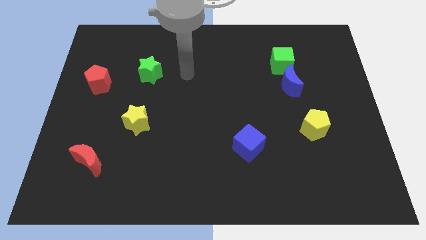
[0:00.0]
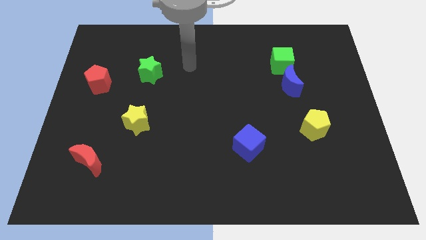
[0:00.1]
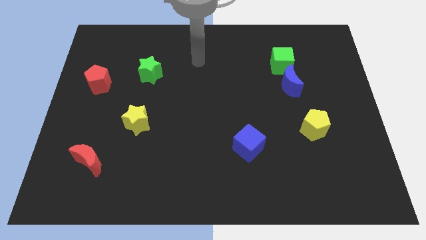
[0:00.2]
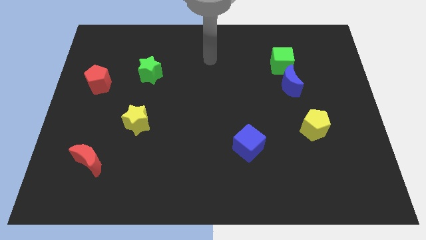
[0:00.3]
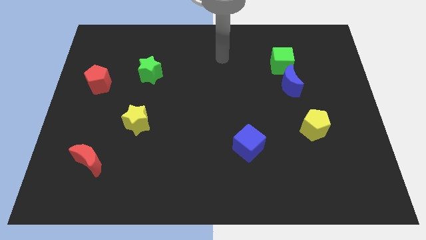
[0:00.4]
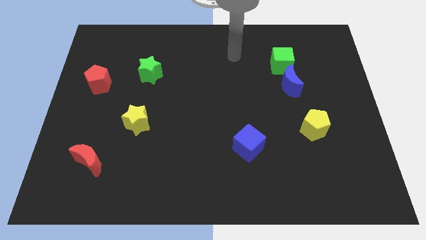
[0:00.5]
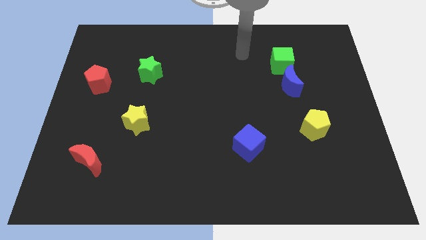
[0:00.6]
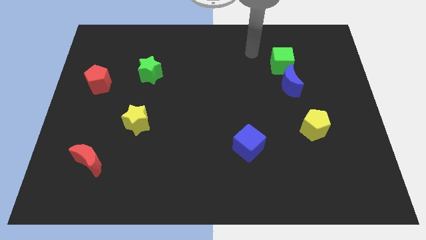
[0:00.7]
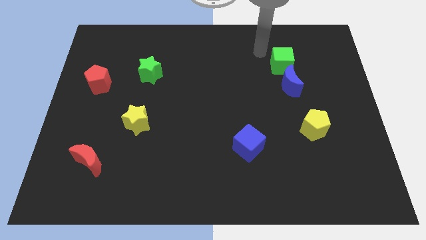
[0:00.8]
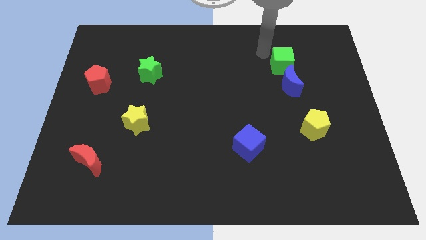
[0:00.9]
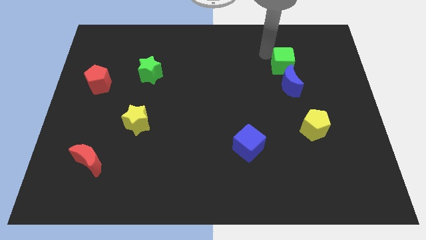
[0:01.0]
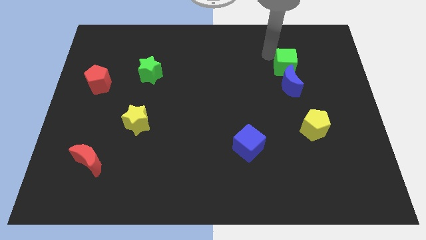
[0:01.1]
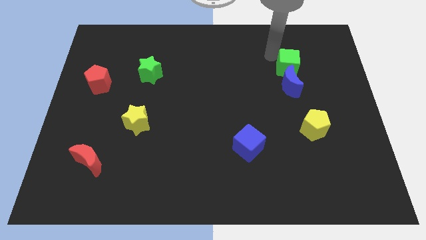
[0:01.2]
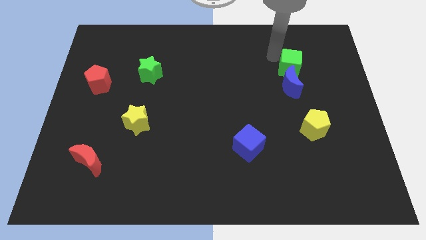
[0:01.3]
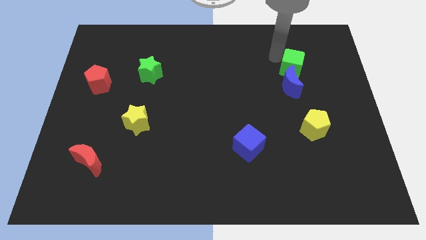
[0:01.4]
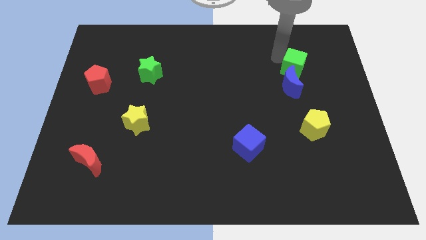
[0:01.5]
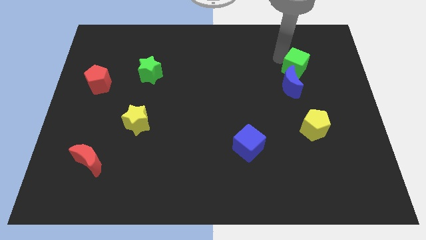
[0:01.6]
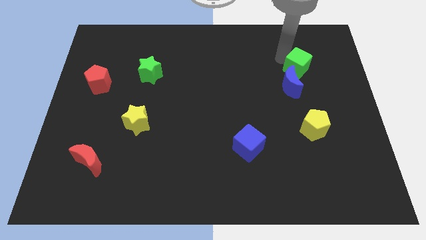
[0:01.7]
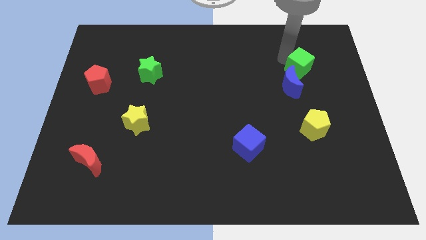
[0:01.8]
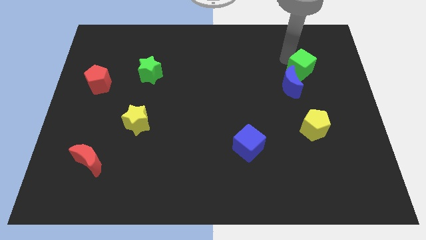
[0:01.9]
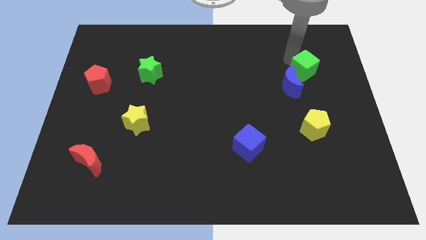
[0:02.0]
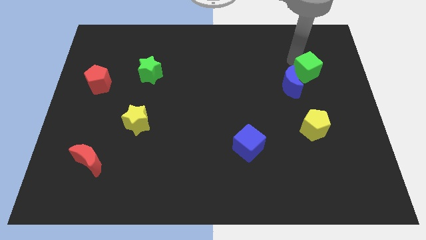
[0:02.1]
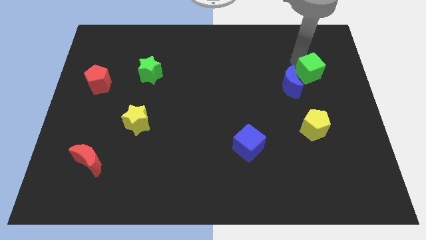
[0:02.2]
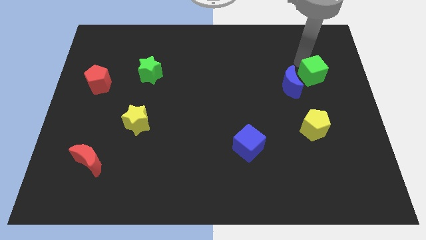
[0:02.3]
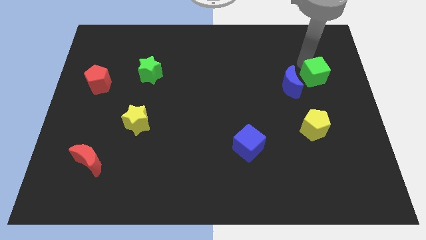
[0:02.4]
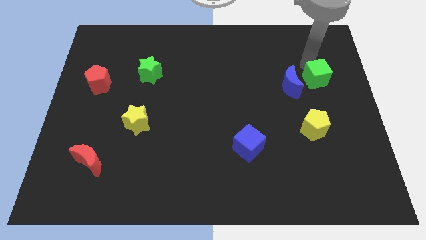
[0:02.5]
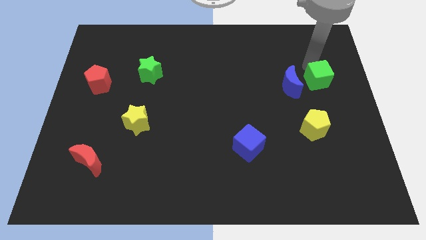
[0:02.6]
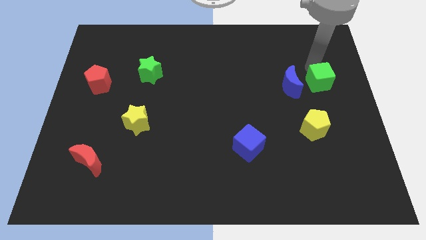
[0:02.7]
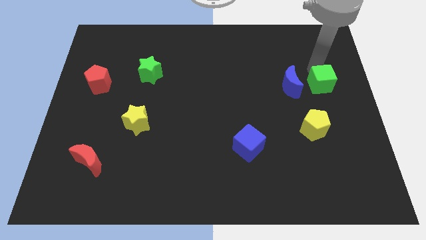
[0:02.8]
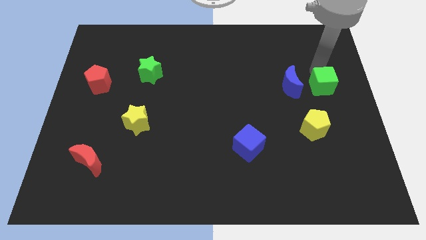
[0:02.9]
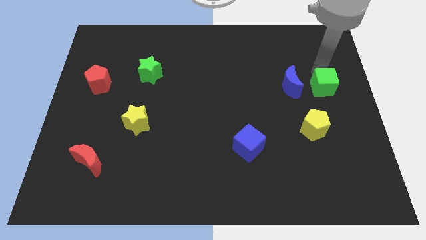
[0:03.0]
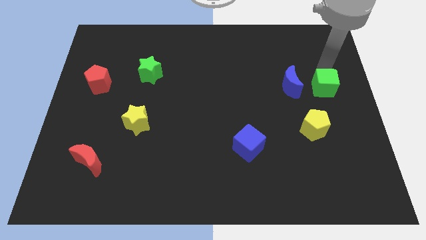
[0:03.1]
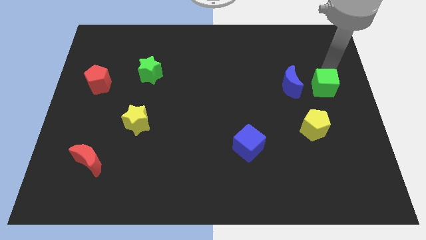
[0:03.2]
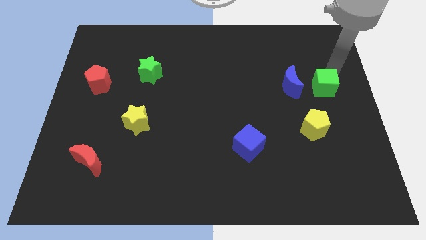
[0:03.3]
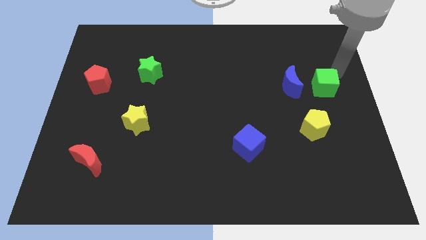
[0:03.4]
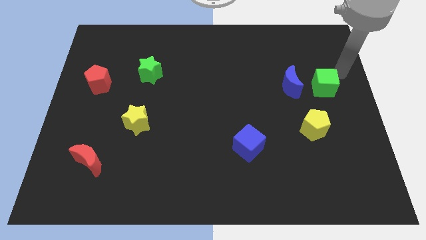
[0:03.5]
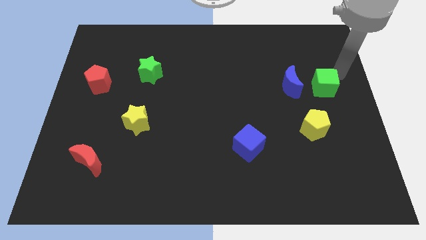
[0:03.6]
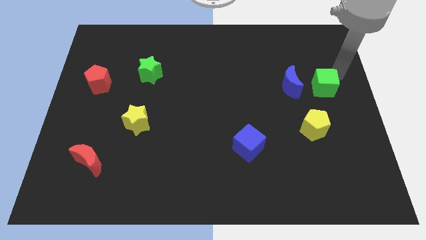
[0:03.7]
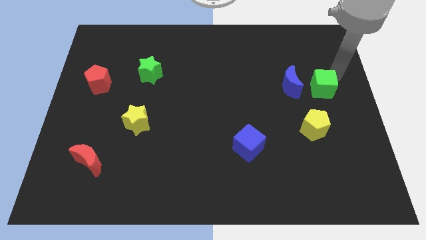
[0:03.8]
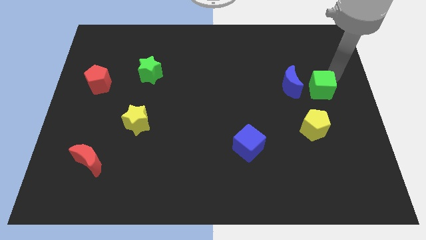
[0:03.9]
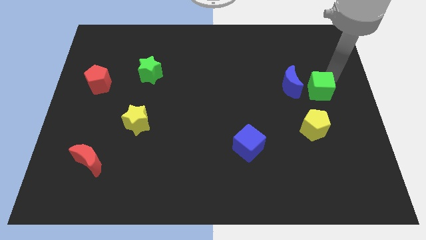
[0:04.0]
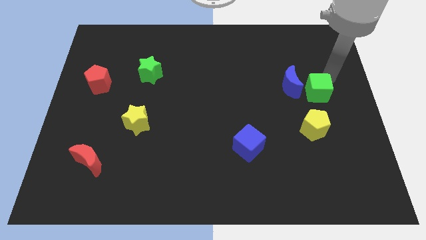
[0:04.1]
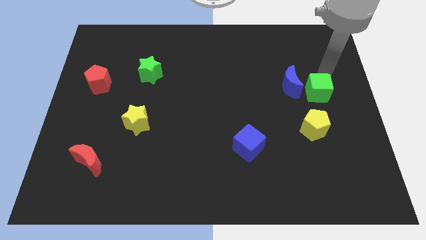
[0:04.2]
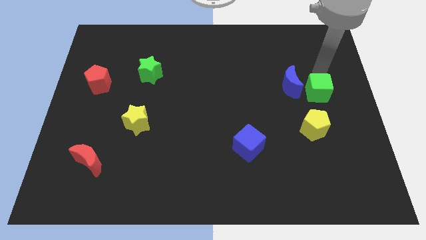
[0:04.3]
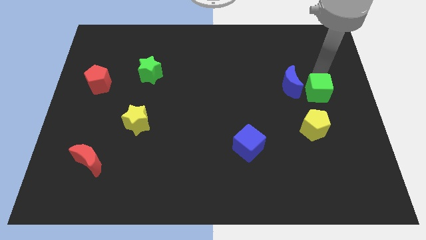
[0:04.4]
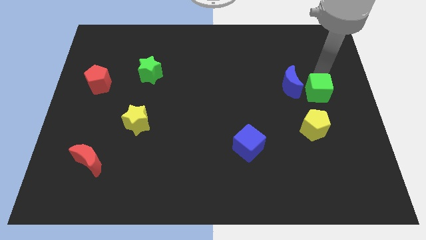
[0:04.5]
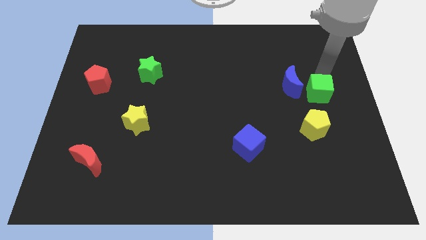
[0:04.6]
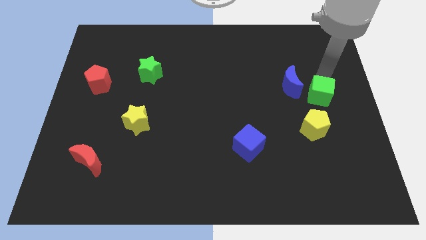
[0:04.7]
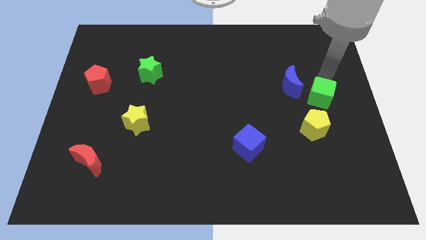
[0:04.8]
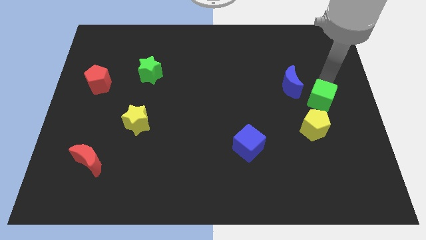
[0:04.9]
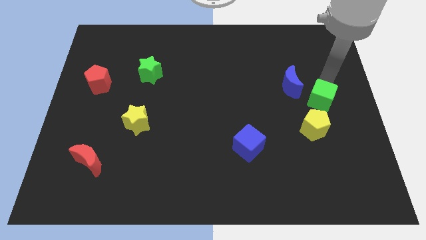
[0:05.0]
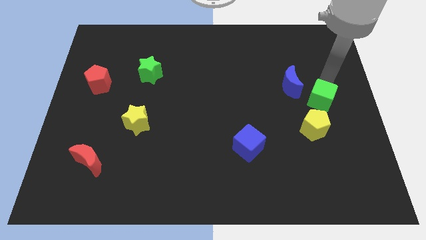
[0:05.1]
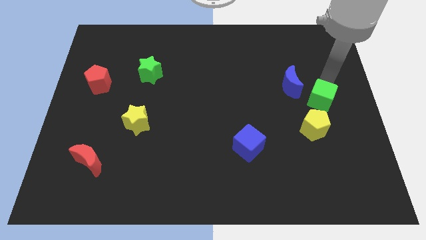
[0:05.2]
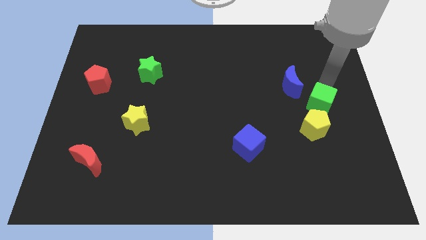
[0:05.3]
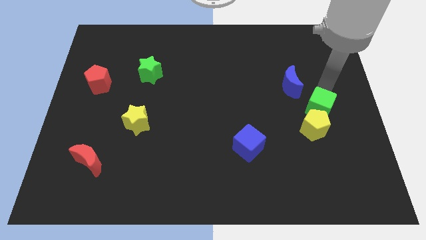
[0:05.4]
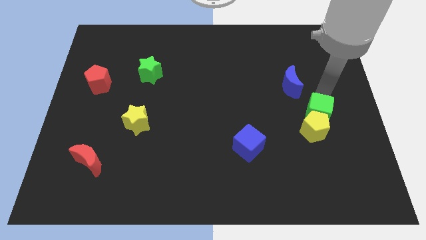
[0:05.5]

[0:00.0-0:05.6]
move the green cube towards the yellow pentagon

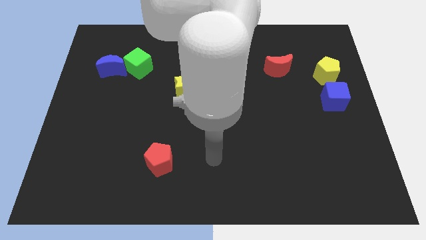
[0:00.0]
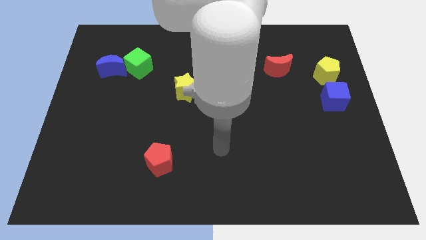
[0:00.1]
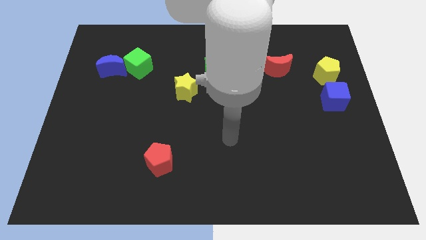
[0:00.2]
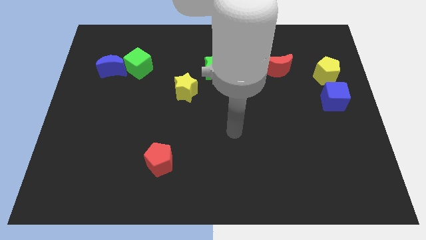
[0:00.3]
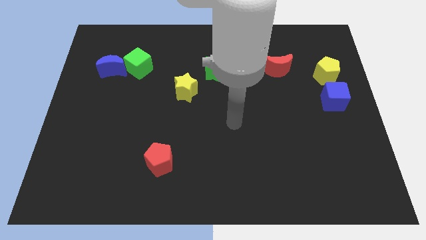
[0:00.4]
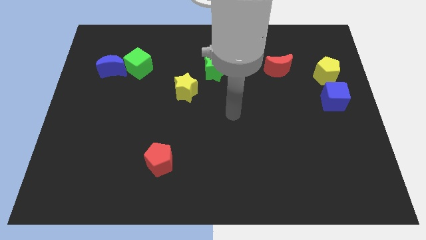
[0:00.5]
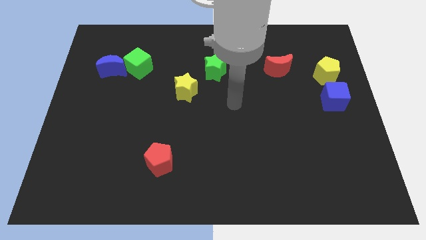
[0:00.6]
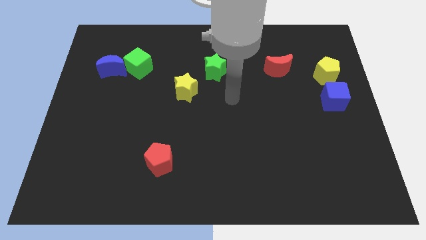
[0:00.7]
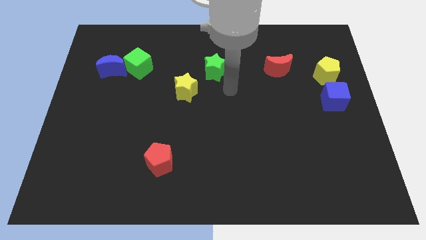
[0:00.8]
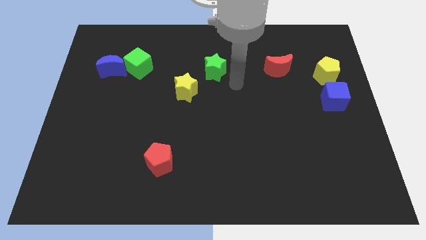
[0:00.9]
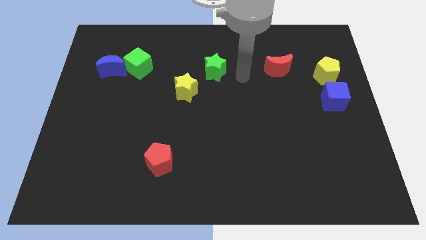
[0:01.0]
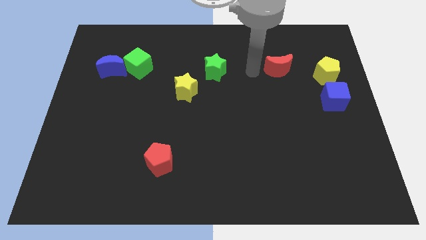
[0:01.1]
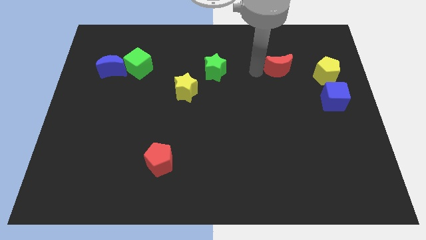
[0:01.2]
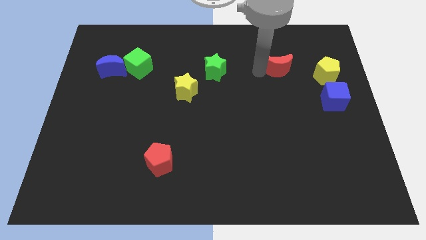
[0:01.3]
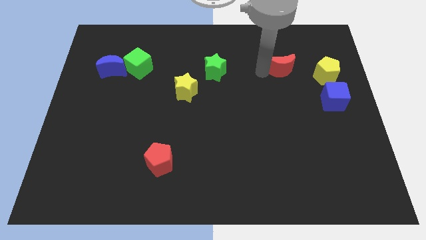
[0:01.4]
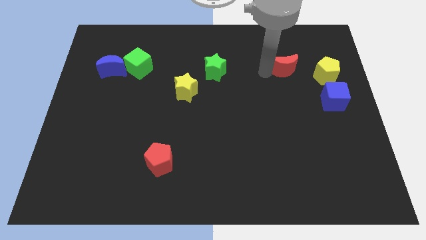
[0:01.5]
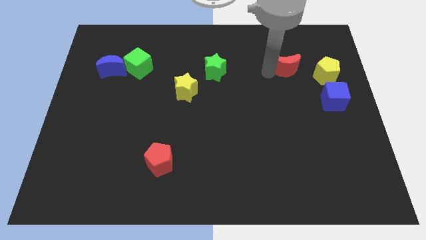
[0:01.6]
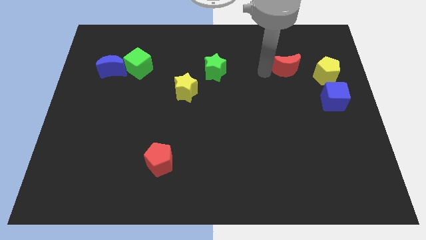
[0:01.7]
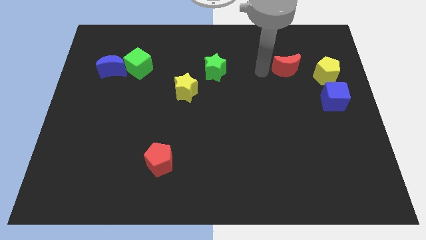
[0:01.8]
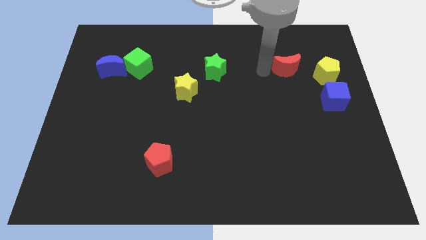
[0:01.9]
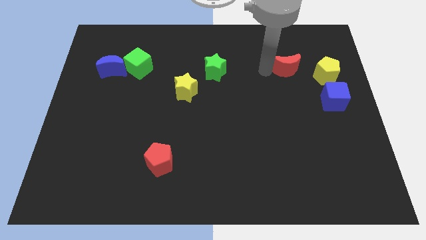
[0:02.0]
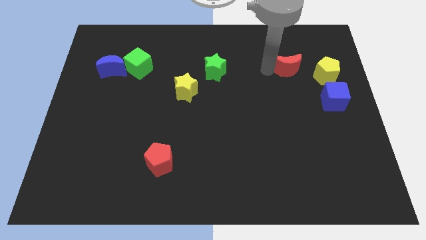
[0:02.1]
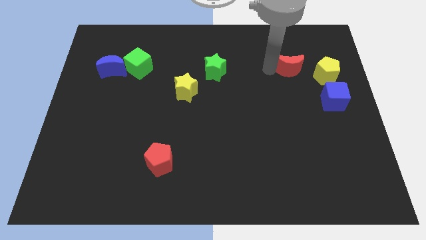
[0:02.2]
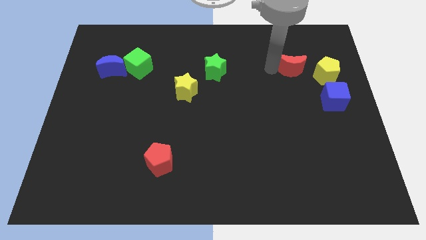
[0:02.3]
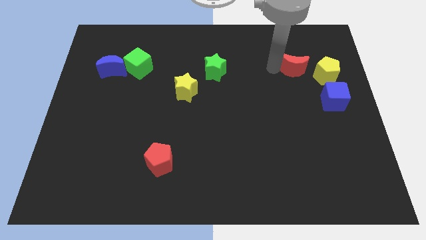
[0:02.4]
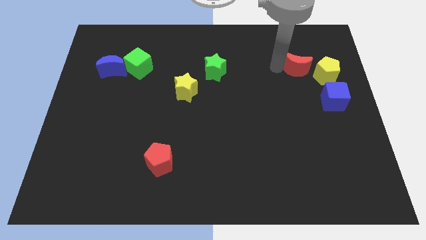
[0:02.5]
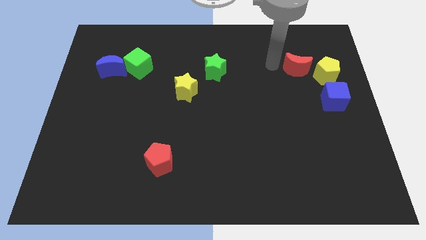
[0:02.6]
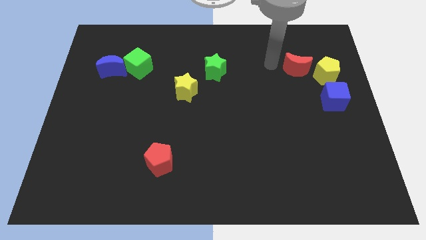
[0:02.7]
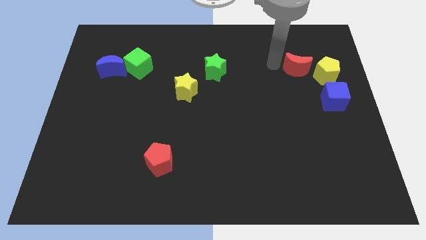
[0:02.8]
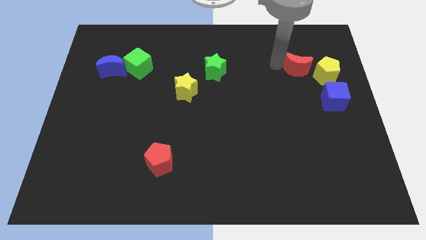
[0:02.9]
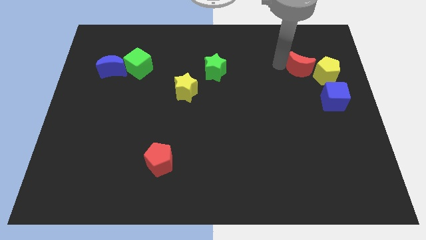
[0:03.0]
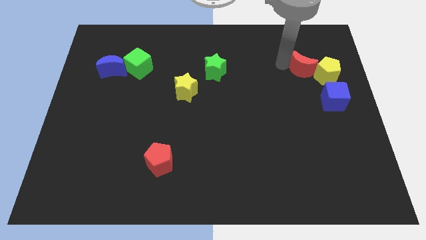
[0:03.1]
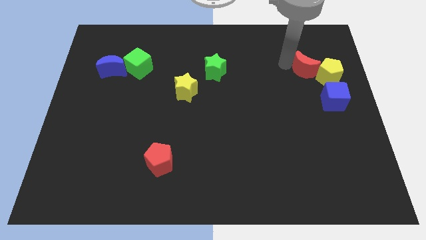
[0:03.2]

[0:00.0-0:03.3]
push the red moon to the yellow pentagon
